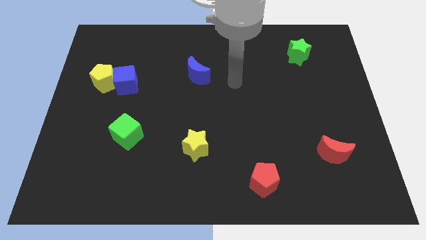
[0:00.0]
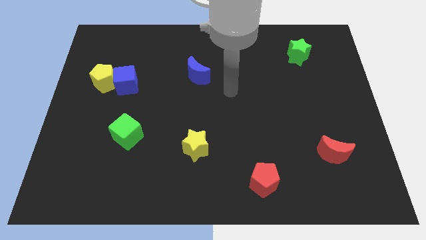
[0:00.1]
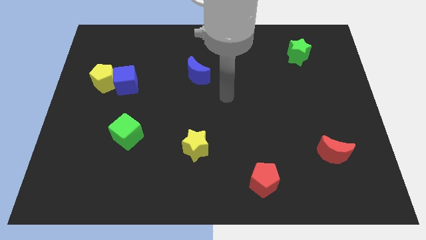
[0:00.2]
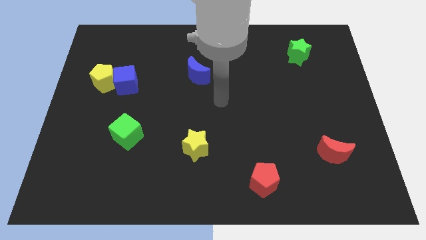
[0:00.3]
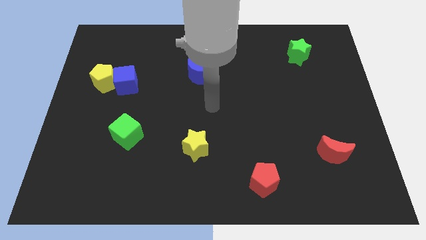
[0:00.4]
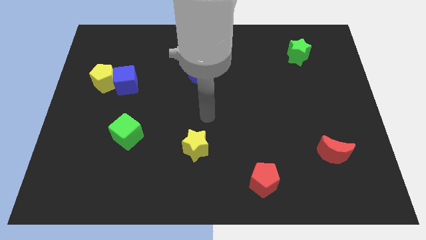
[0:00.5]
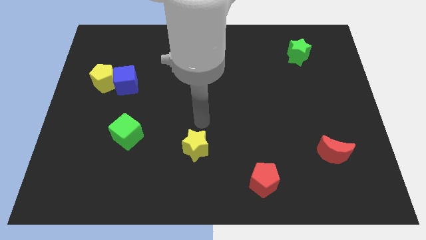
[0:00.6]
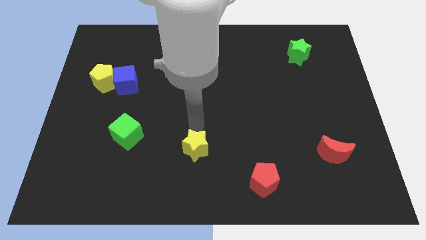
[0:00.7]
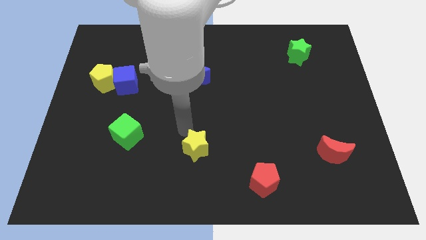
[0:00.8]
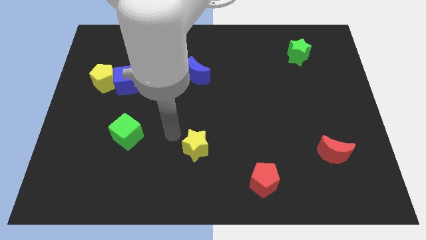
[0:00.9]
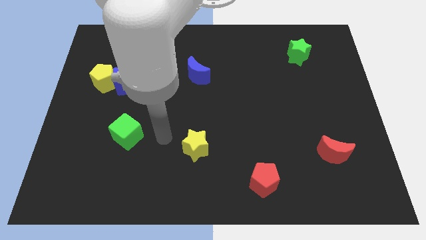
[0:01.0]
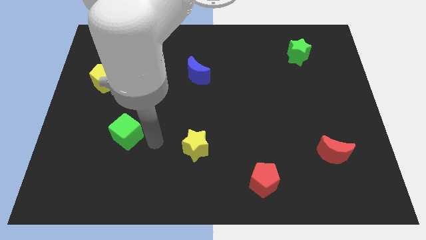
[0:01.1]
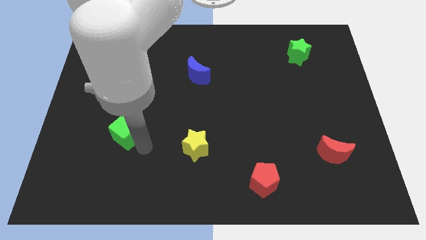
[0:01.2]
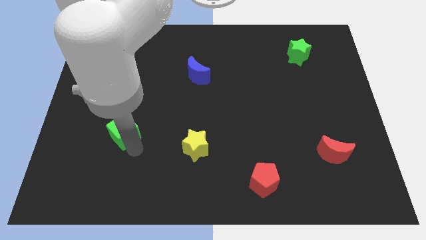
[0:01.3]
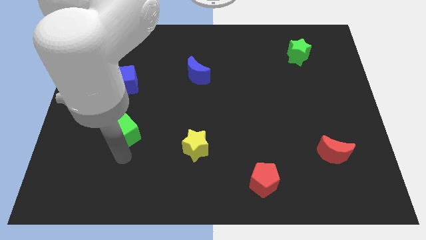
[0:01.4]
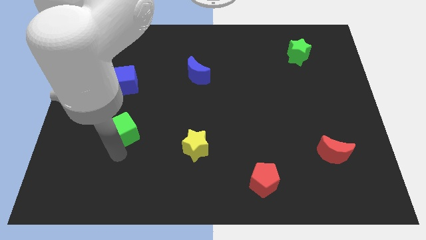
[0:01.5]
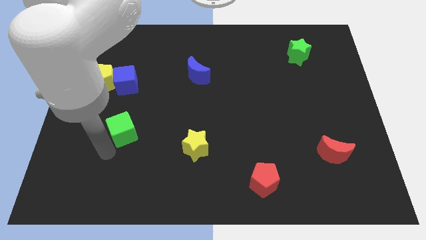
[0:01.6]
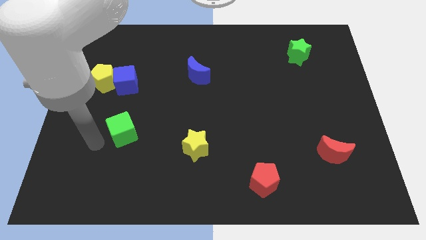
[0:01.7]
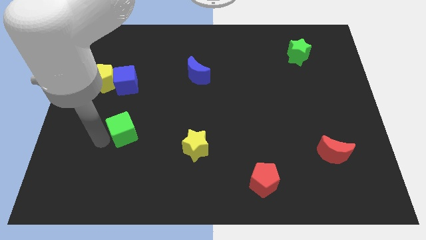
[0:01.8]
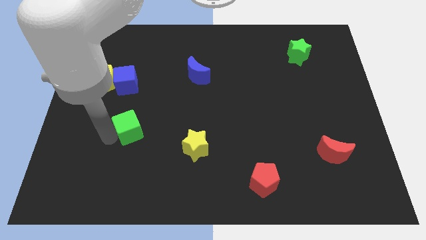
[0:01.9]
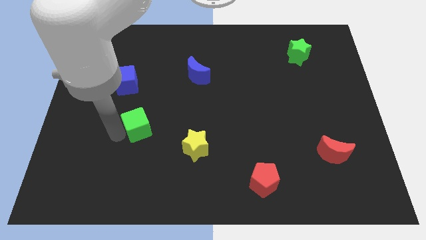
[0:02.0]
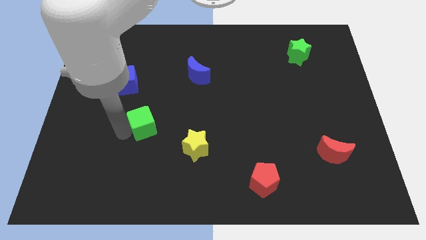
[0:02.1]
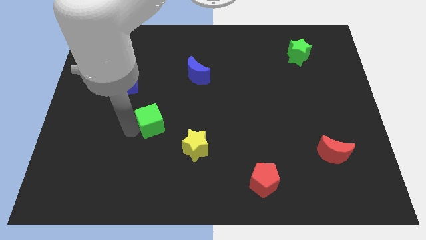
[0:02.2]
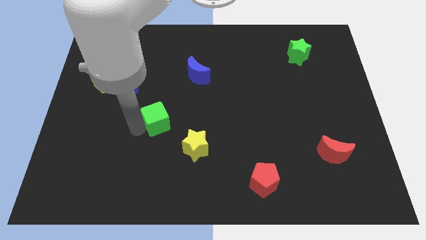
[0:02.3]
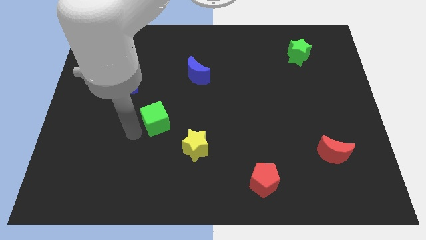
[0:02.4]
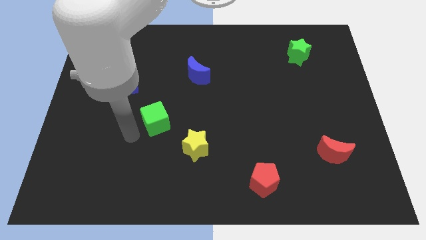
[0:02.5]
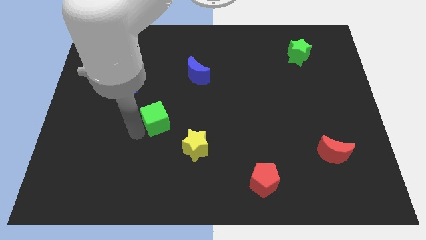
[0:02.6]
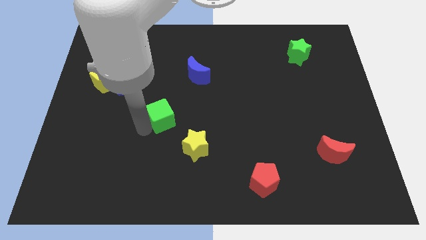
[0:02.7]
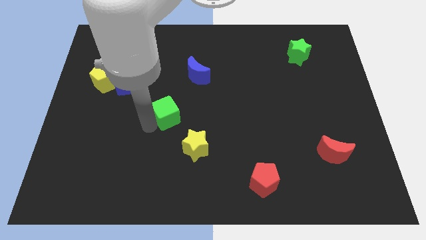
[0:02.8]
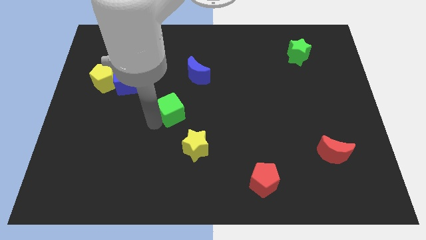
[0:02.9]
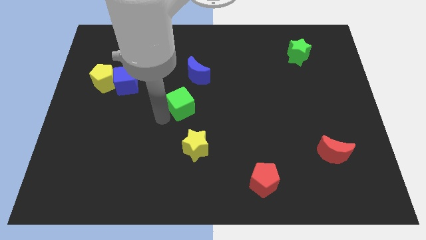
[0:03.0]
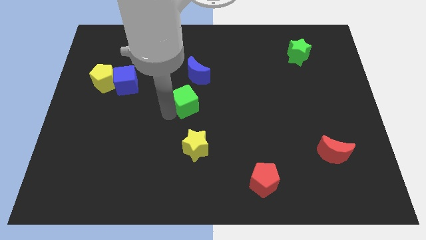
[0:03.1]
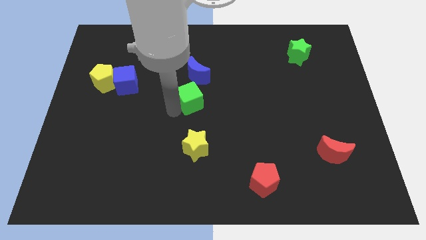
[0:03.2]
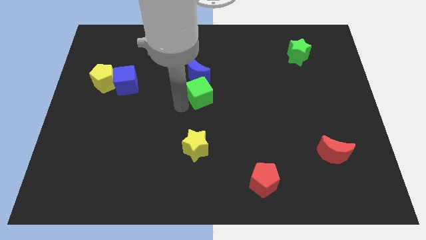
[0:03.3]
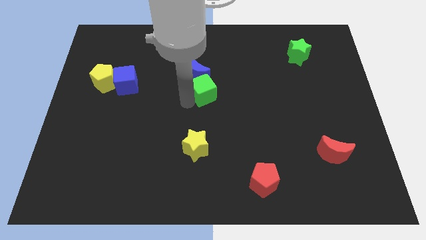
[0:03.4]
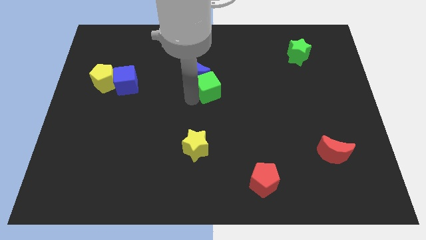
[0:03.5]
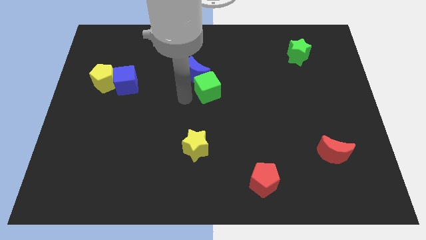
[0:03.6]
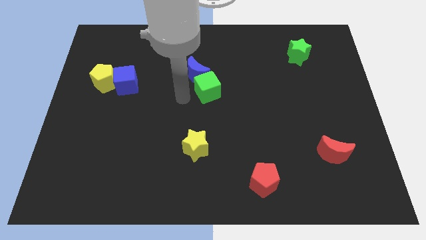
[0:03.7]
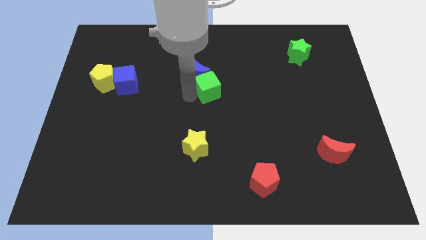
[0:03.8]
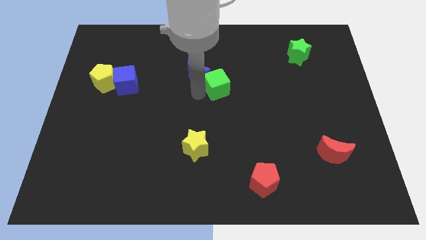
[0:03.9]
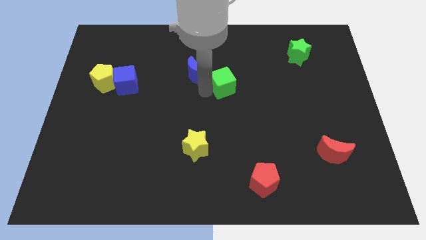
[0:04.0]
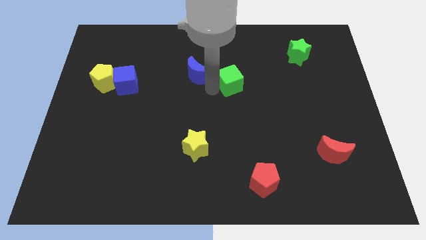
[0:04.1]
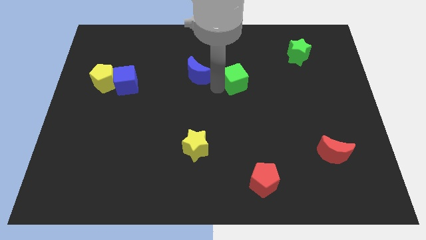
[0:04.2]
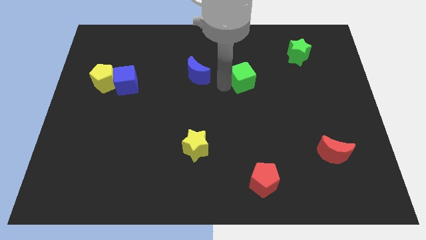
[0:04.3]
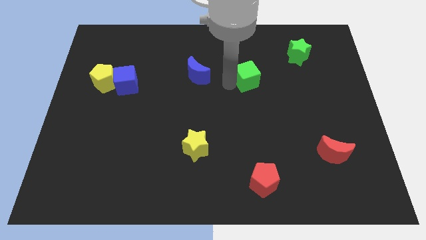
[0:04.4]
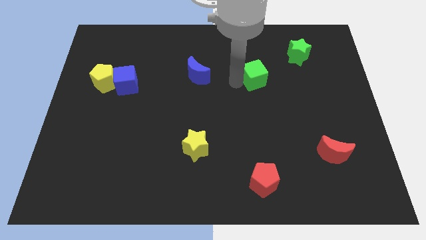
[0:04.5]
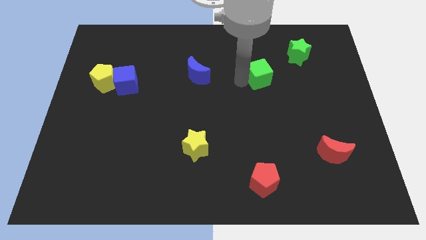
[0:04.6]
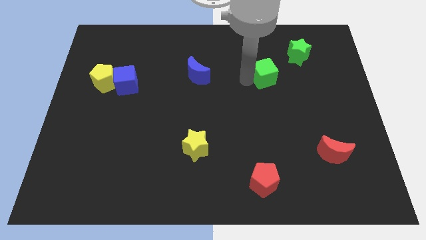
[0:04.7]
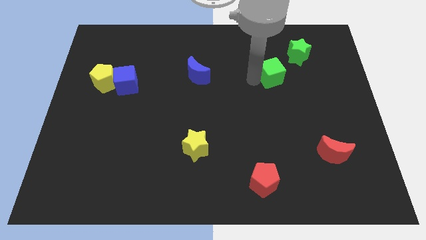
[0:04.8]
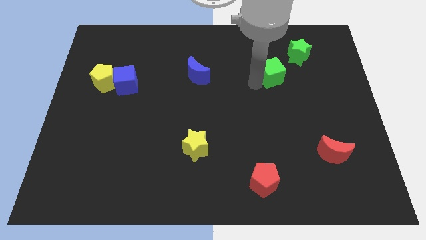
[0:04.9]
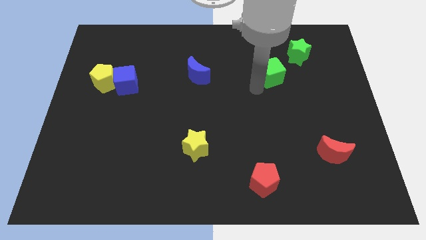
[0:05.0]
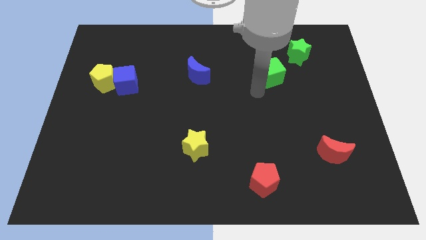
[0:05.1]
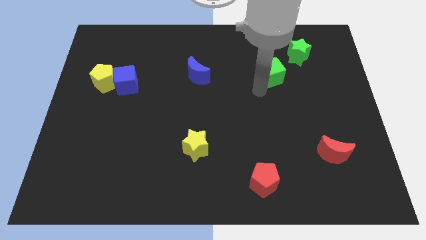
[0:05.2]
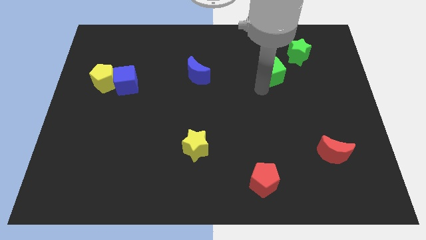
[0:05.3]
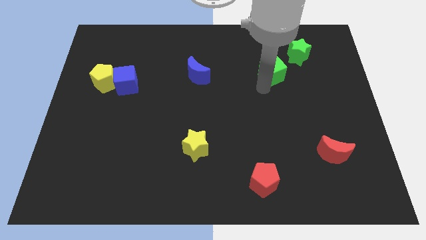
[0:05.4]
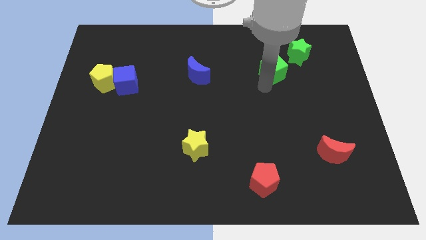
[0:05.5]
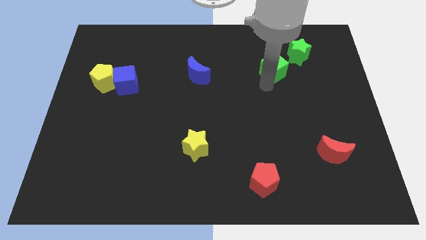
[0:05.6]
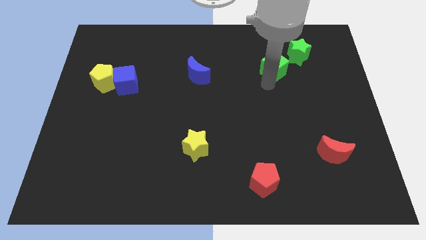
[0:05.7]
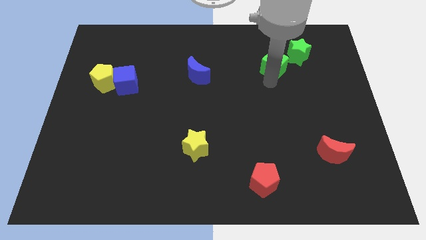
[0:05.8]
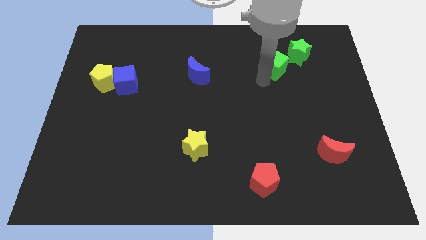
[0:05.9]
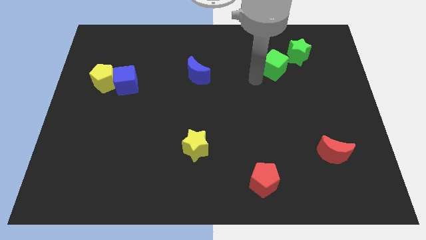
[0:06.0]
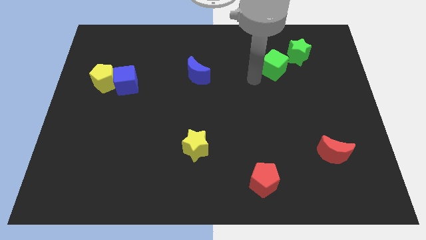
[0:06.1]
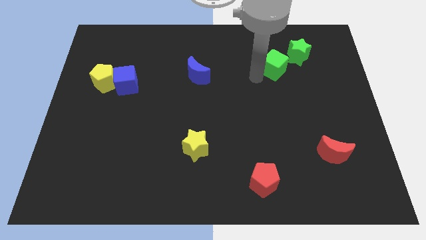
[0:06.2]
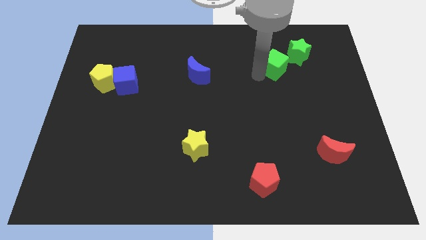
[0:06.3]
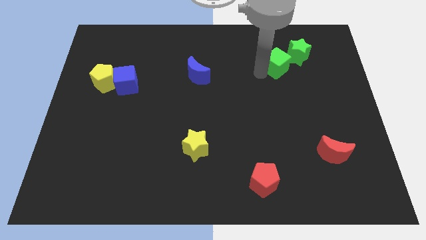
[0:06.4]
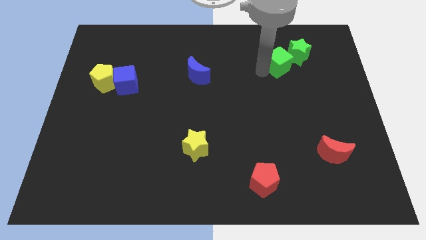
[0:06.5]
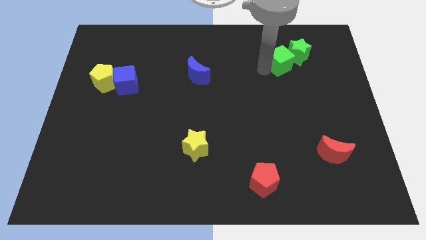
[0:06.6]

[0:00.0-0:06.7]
slide the green cube next to the green star

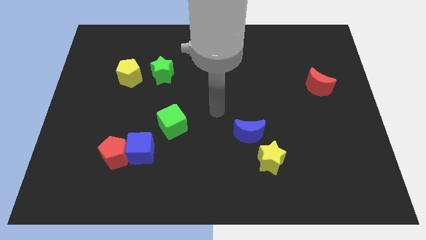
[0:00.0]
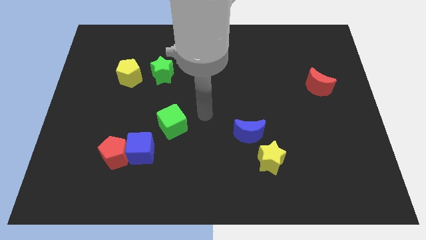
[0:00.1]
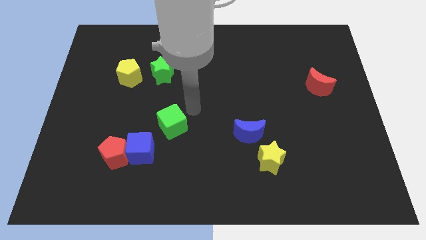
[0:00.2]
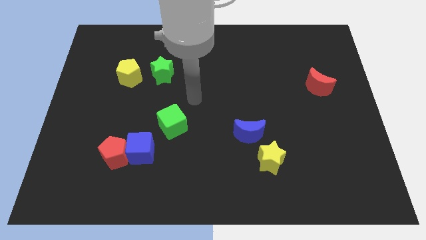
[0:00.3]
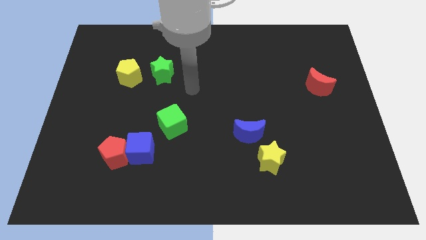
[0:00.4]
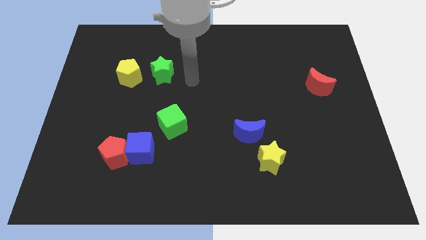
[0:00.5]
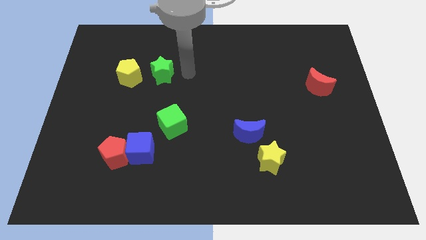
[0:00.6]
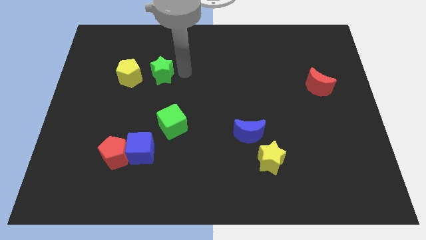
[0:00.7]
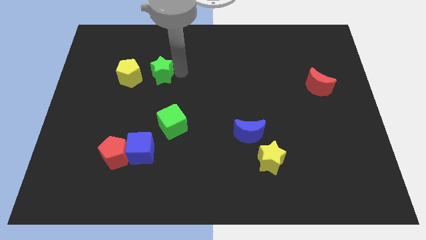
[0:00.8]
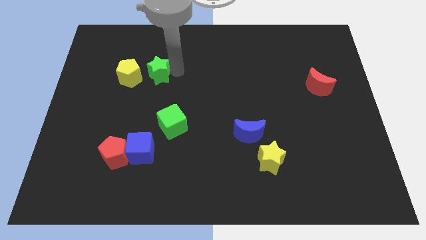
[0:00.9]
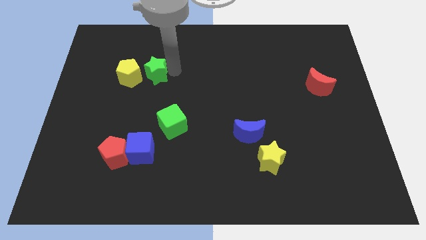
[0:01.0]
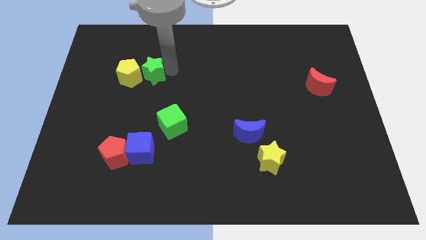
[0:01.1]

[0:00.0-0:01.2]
push the green star towards the yellow pentagon
